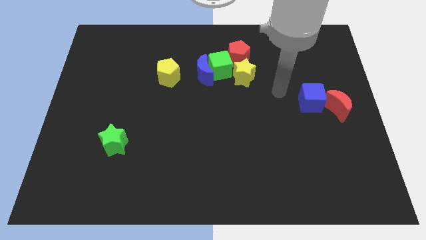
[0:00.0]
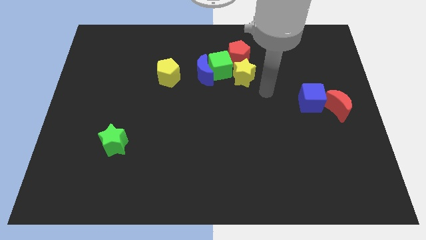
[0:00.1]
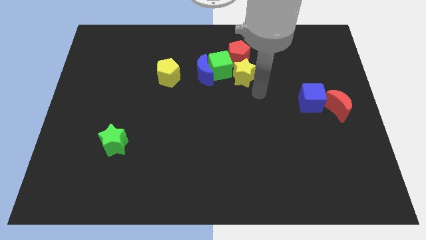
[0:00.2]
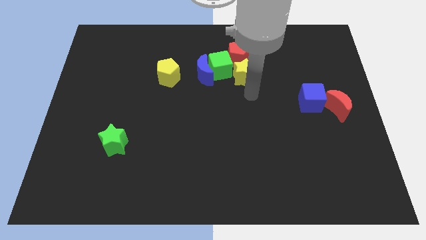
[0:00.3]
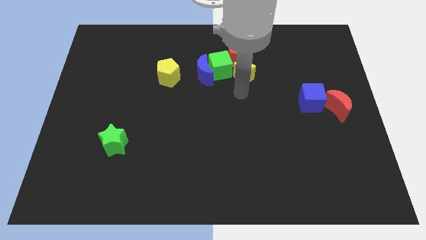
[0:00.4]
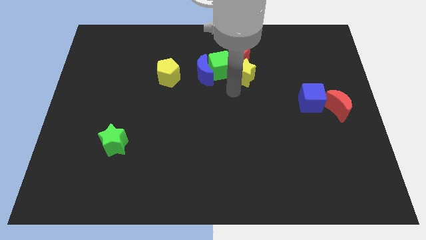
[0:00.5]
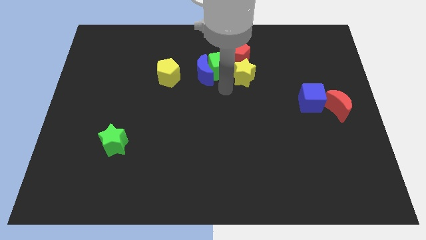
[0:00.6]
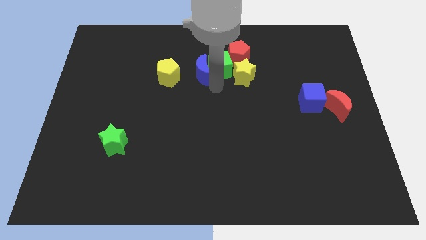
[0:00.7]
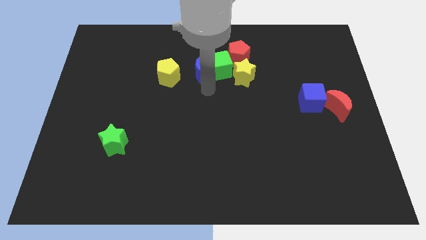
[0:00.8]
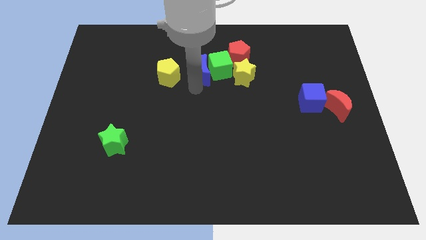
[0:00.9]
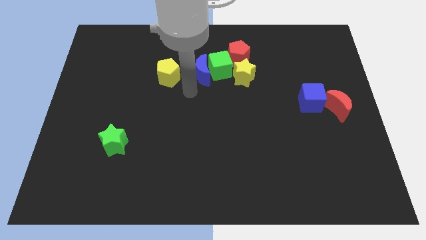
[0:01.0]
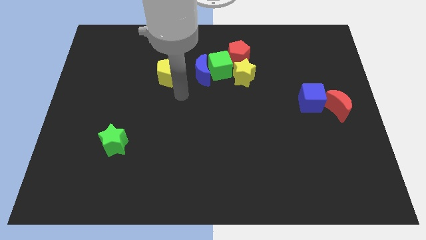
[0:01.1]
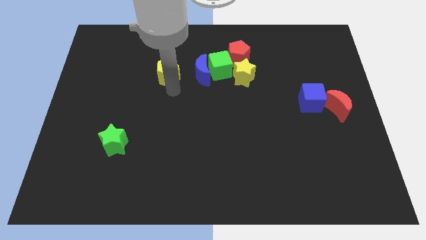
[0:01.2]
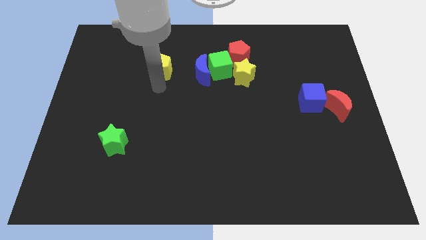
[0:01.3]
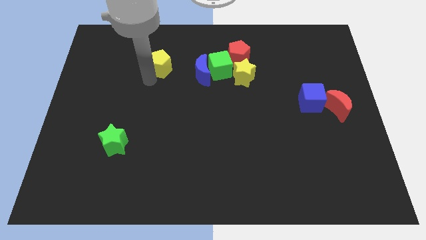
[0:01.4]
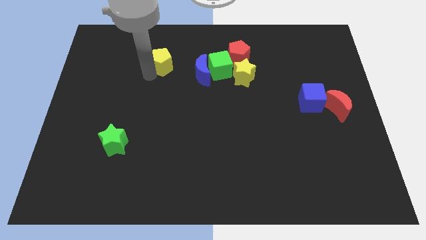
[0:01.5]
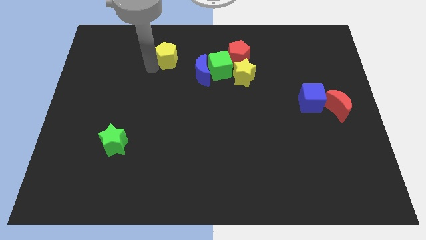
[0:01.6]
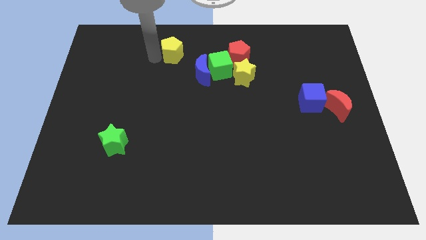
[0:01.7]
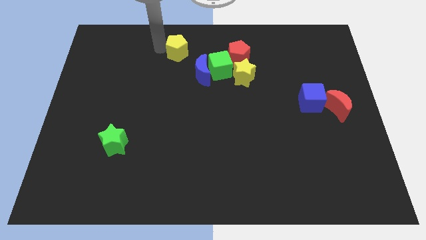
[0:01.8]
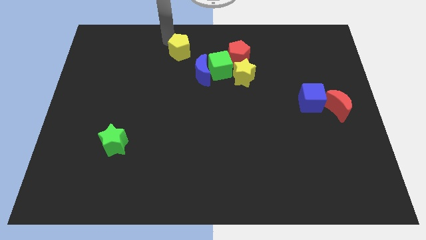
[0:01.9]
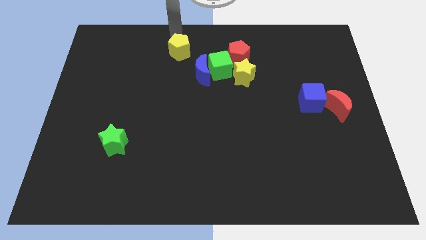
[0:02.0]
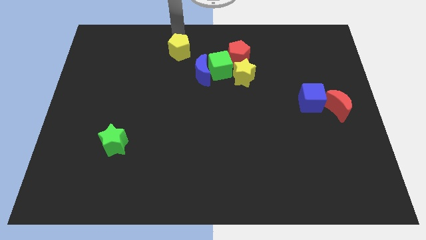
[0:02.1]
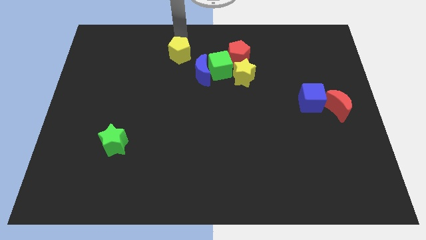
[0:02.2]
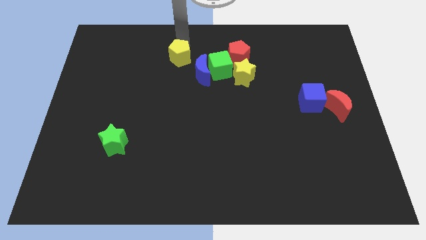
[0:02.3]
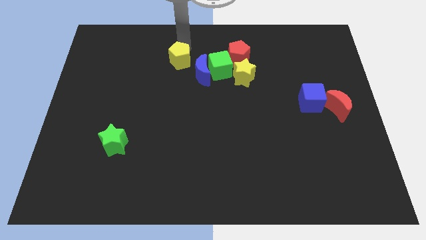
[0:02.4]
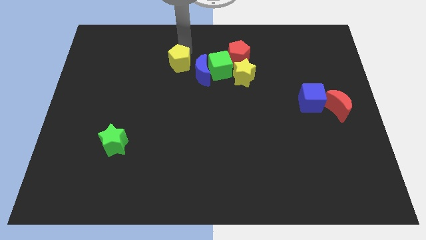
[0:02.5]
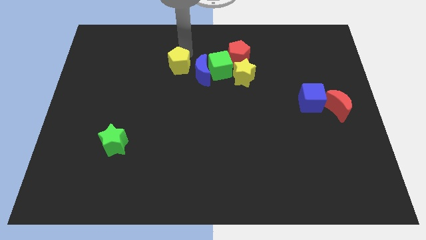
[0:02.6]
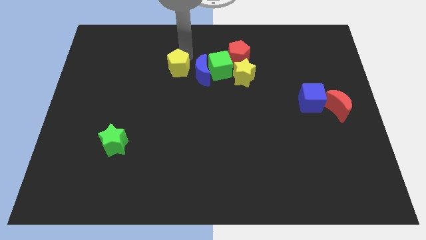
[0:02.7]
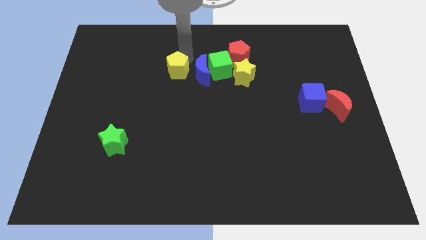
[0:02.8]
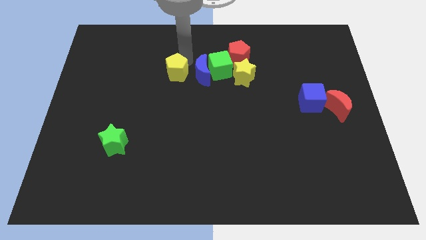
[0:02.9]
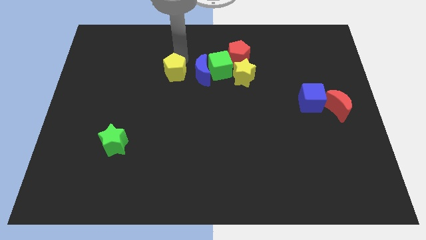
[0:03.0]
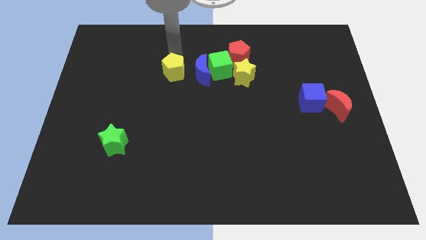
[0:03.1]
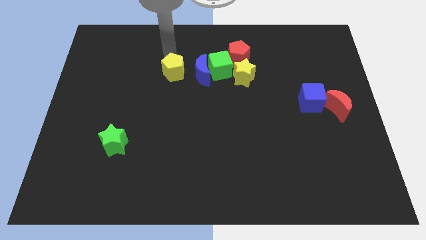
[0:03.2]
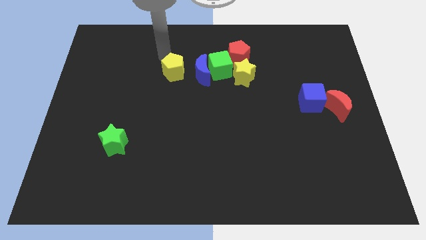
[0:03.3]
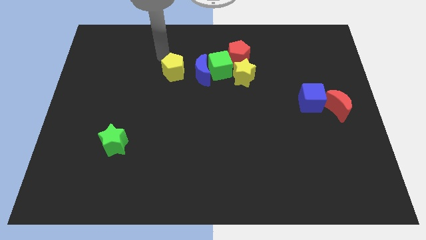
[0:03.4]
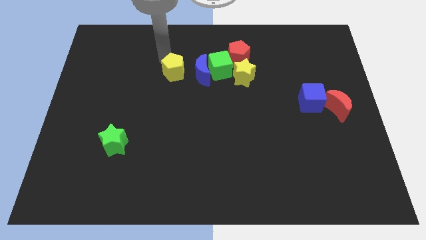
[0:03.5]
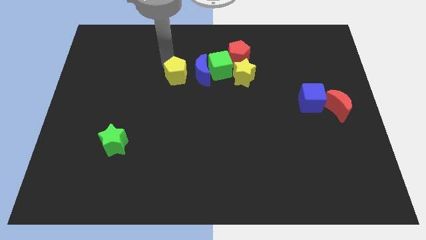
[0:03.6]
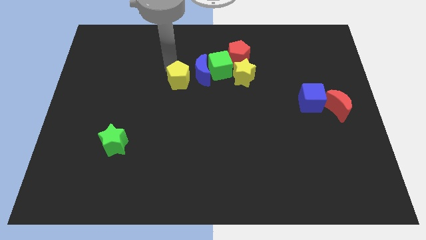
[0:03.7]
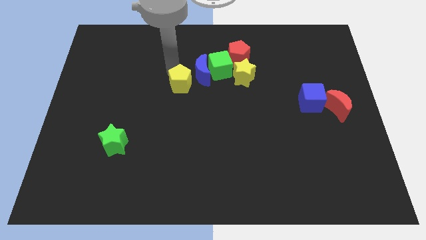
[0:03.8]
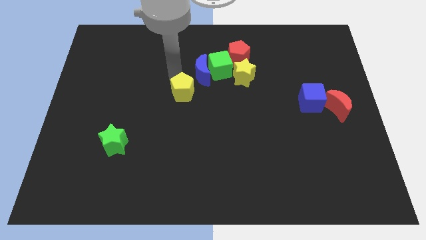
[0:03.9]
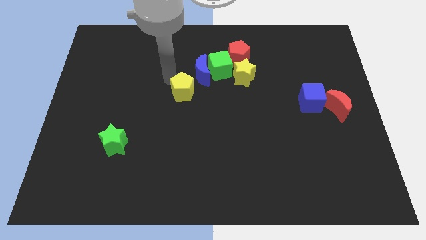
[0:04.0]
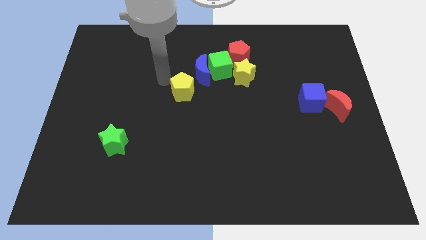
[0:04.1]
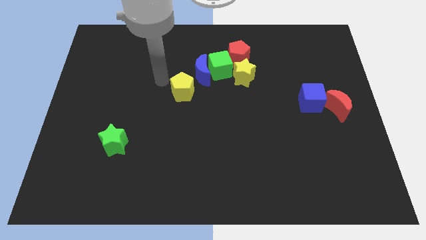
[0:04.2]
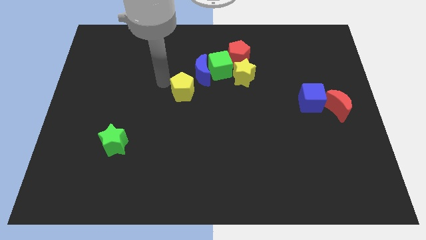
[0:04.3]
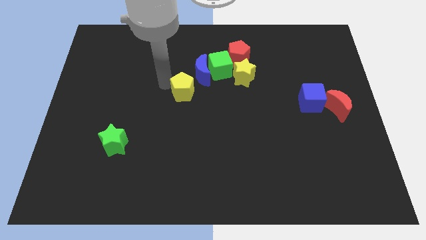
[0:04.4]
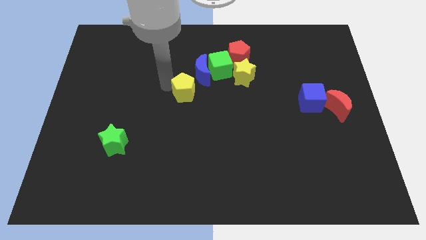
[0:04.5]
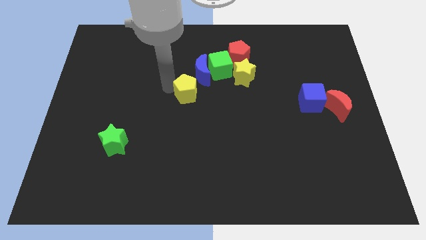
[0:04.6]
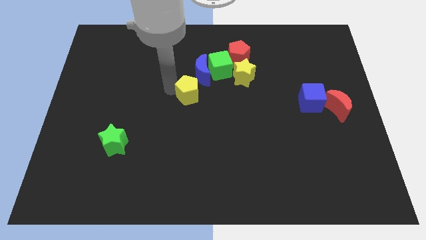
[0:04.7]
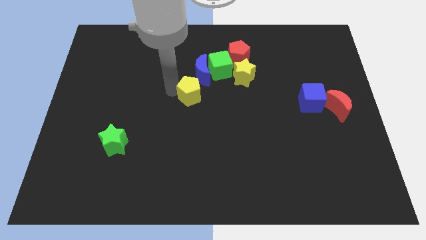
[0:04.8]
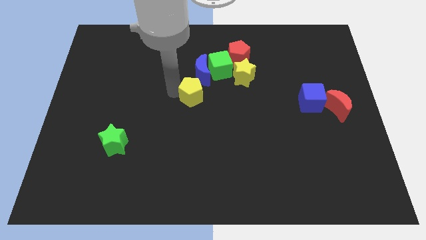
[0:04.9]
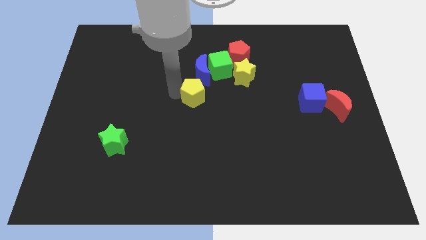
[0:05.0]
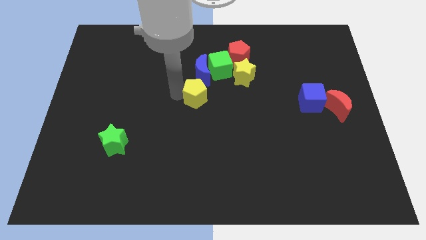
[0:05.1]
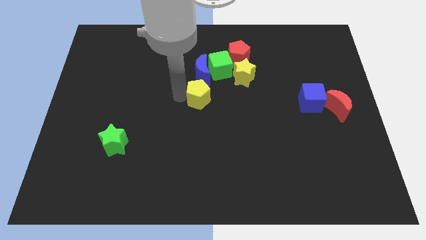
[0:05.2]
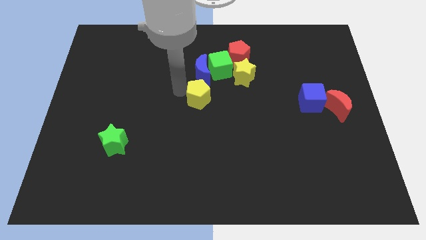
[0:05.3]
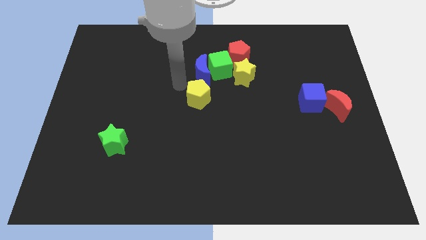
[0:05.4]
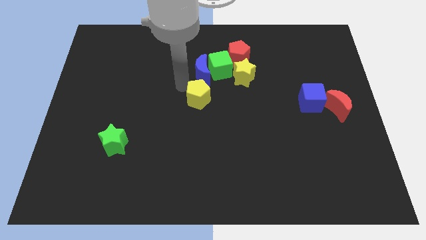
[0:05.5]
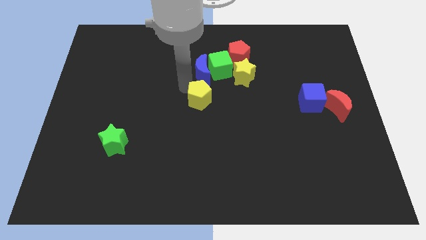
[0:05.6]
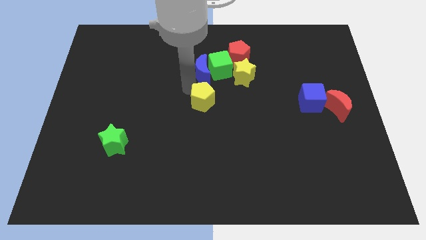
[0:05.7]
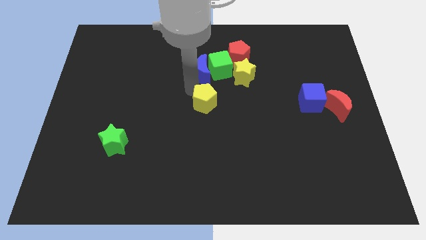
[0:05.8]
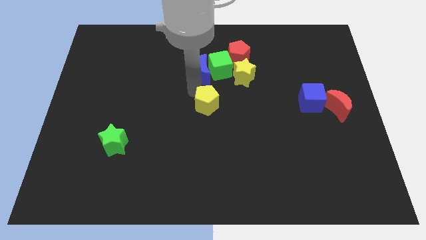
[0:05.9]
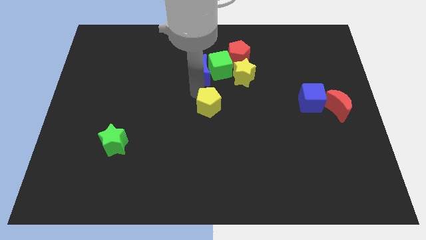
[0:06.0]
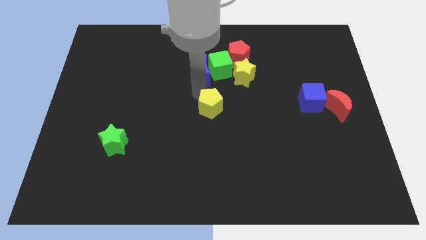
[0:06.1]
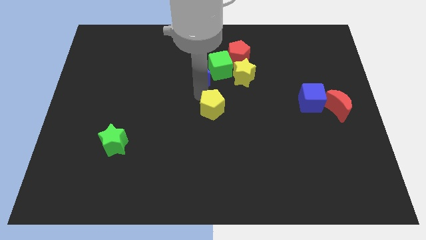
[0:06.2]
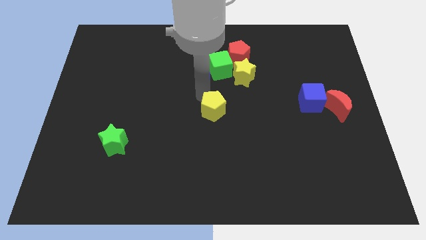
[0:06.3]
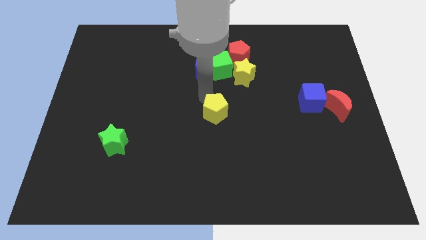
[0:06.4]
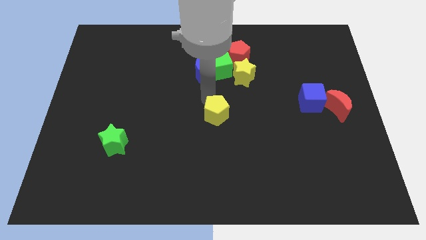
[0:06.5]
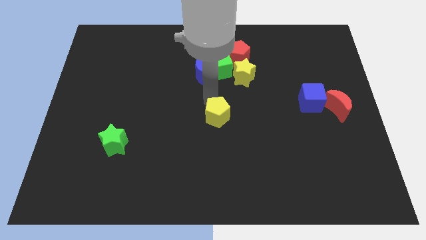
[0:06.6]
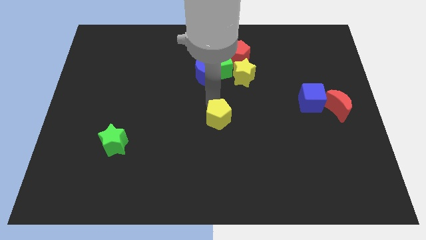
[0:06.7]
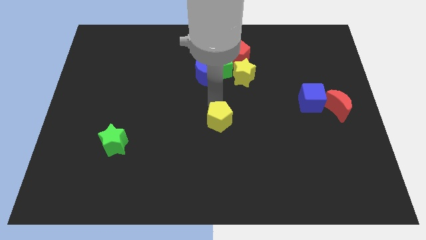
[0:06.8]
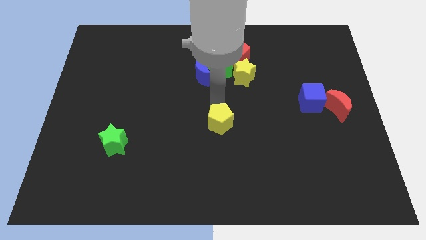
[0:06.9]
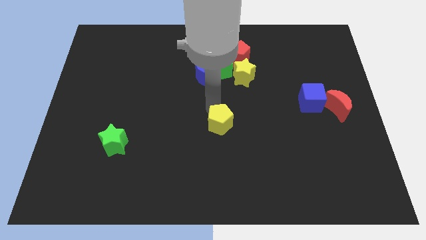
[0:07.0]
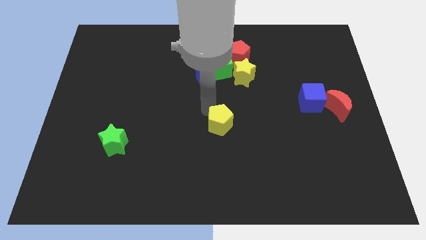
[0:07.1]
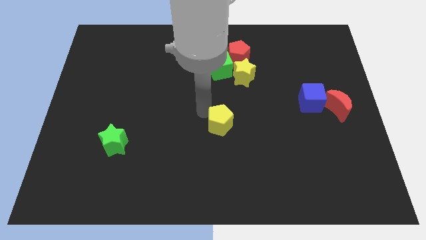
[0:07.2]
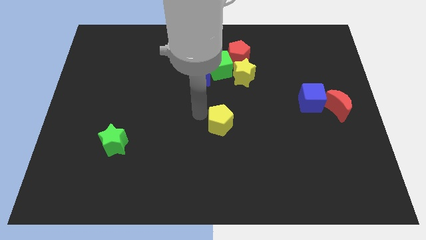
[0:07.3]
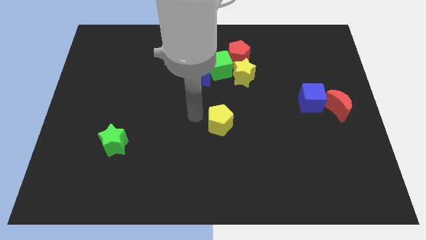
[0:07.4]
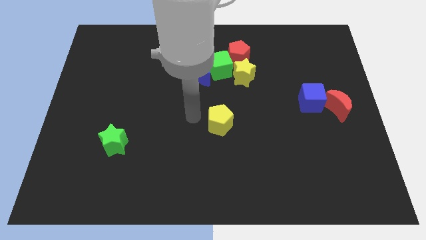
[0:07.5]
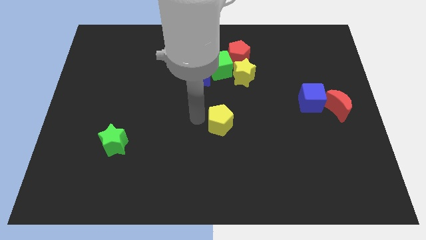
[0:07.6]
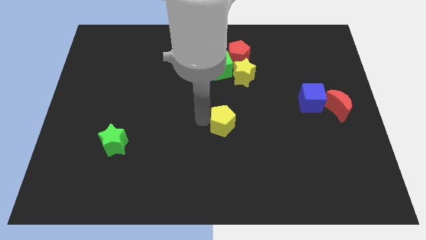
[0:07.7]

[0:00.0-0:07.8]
push the yellow pentagon down and to the right diagonally

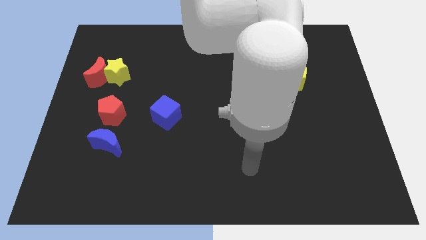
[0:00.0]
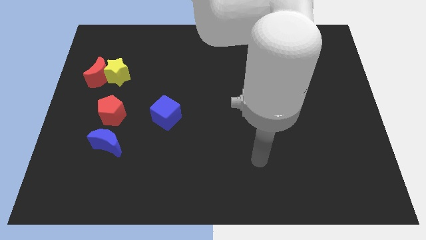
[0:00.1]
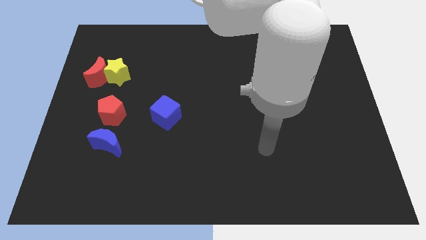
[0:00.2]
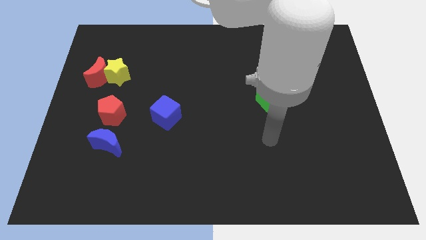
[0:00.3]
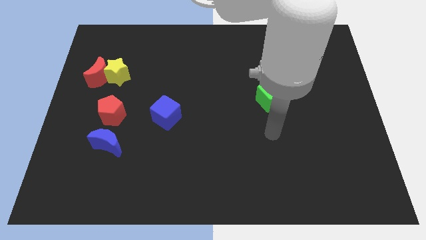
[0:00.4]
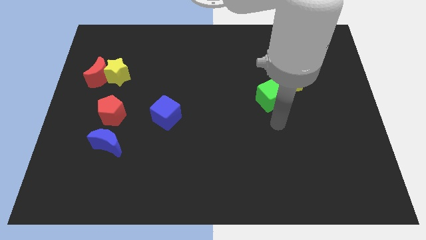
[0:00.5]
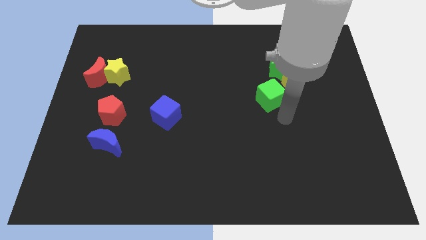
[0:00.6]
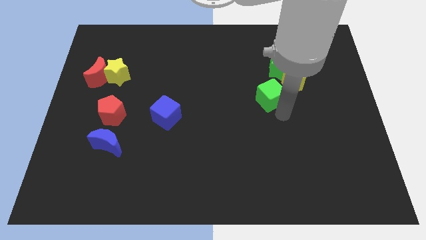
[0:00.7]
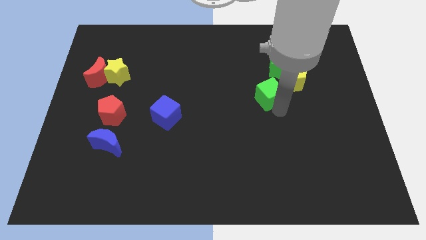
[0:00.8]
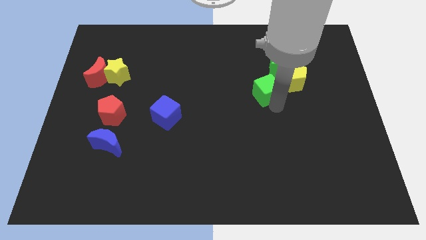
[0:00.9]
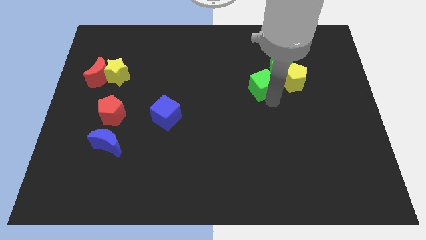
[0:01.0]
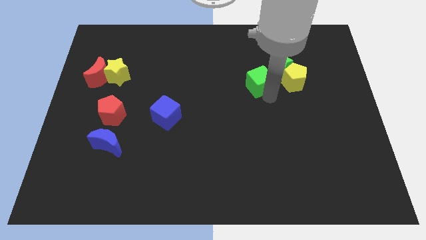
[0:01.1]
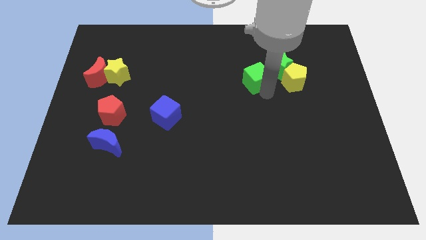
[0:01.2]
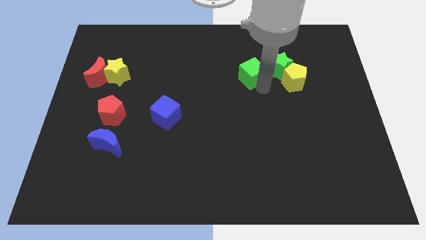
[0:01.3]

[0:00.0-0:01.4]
slightly move the green cube diagonally upwards and to the left
